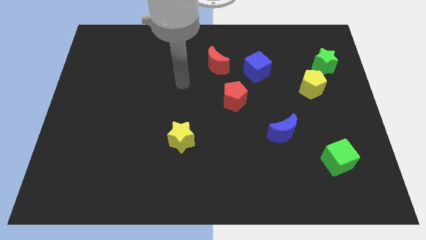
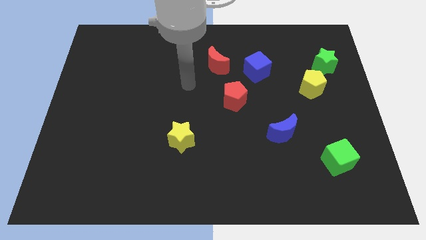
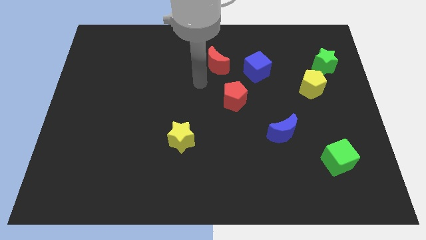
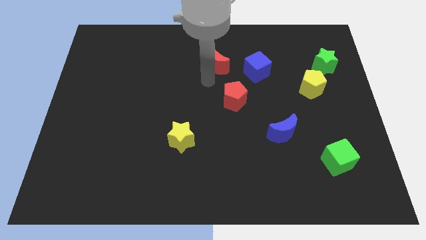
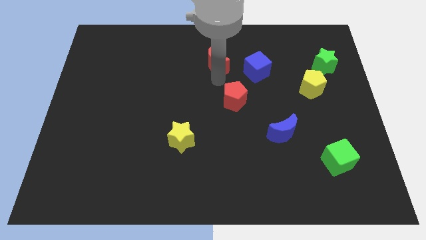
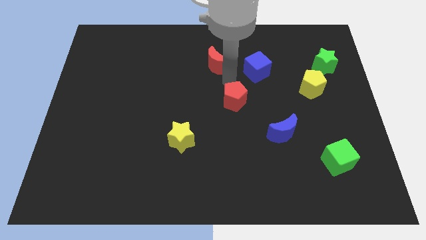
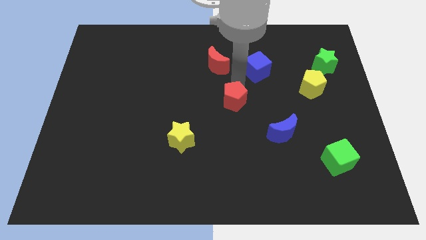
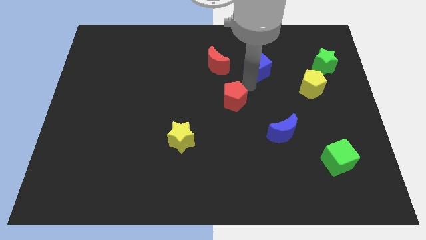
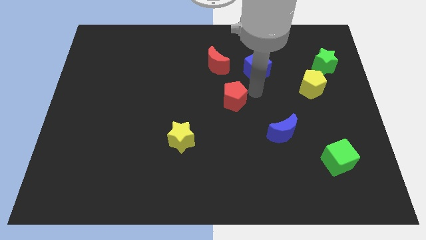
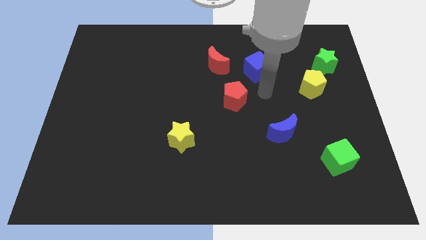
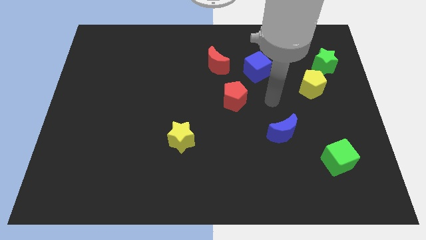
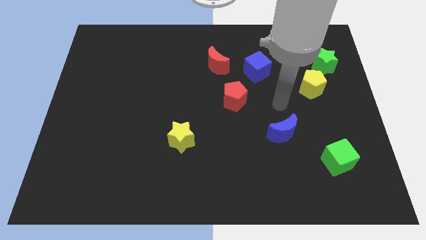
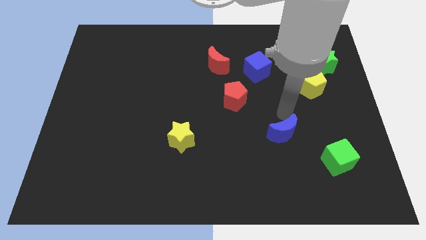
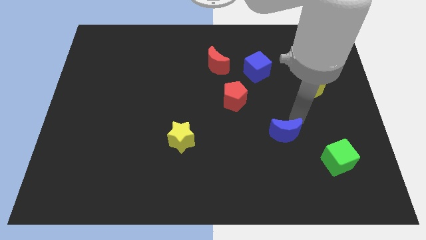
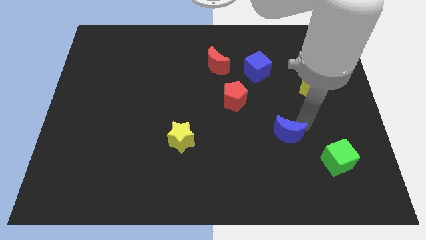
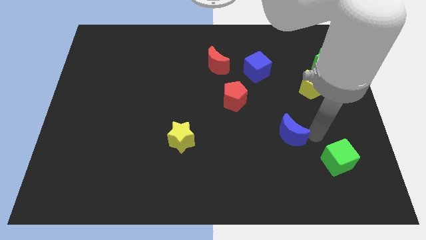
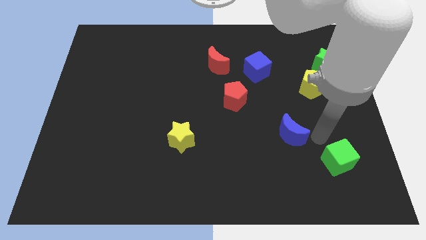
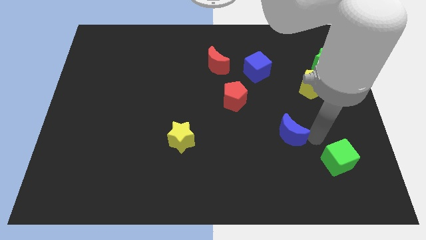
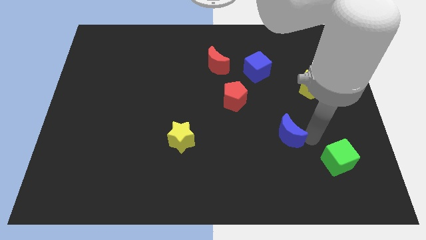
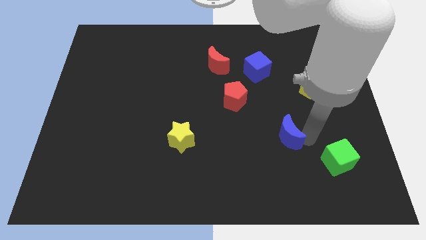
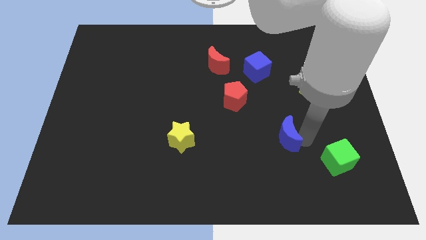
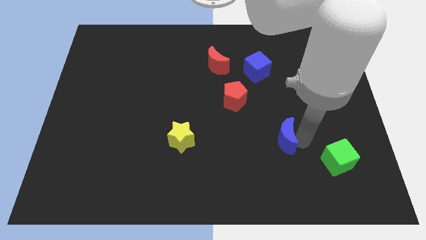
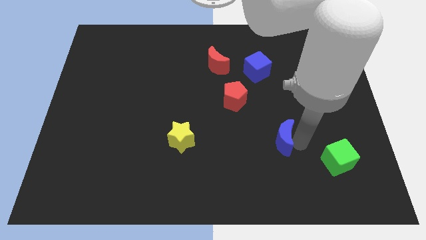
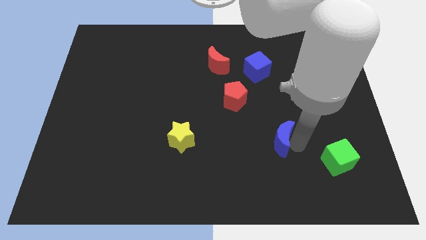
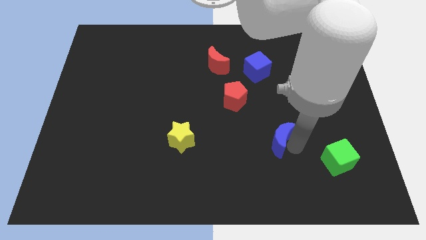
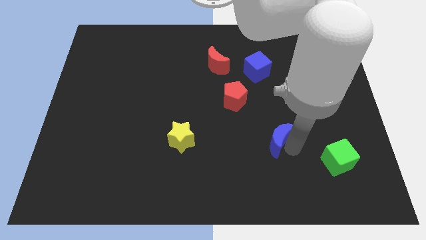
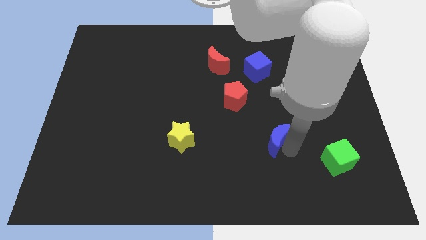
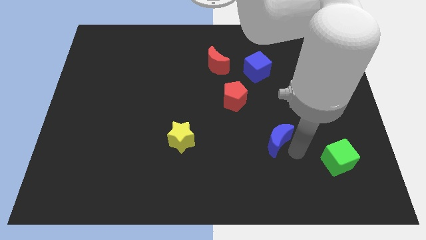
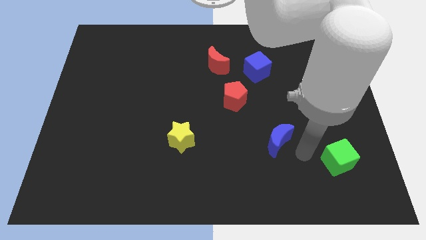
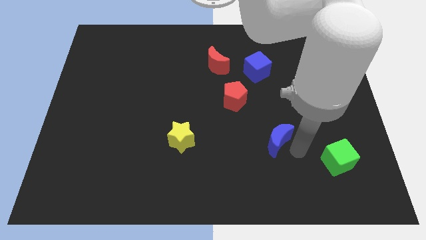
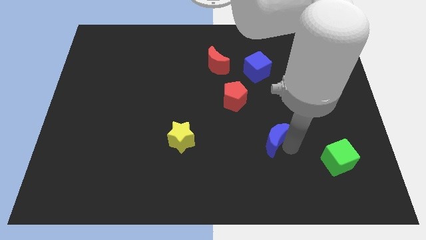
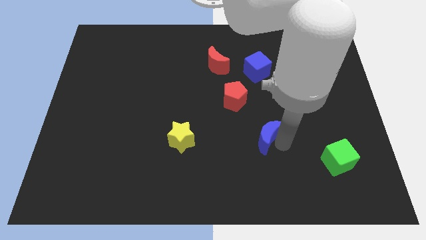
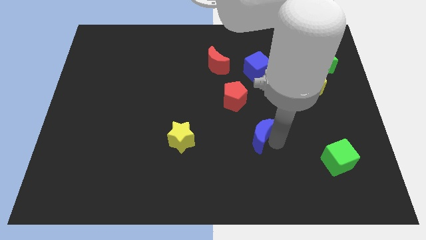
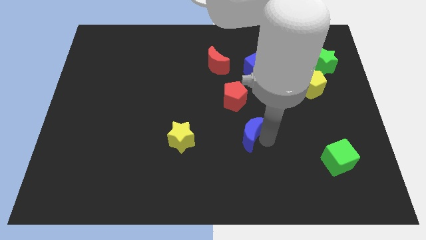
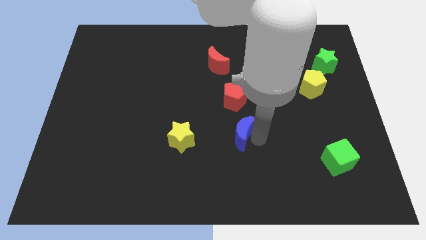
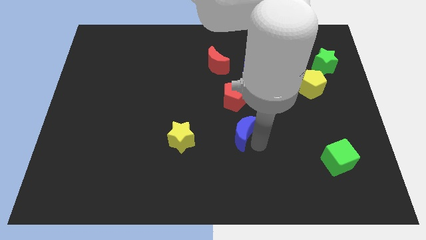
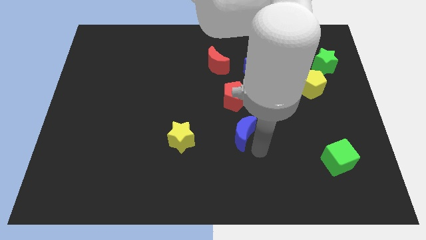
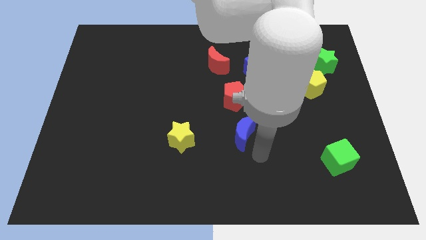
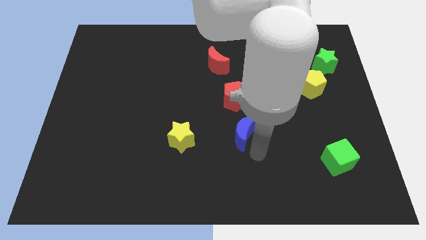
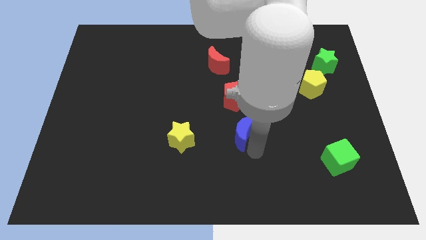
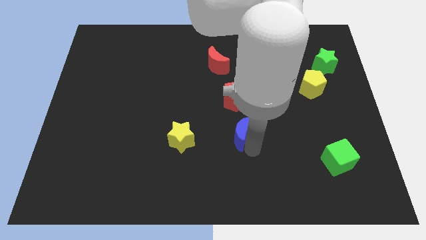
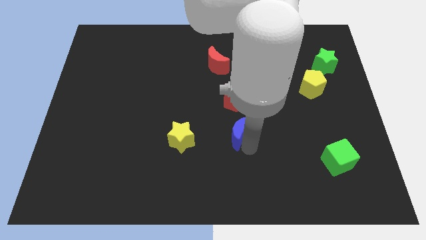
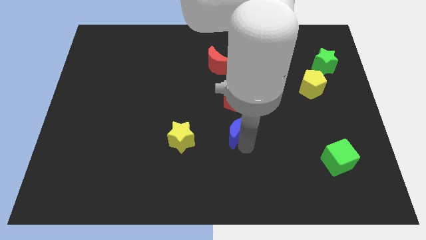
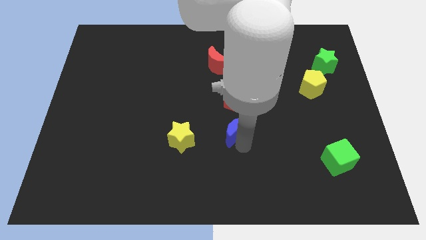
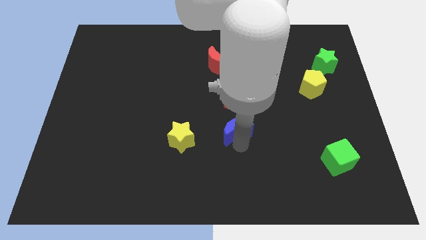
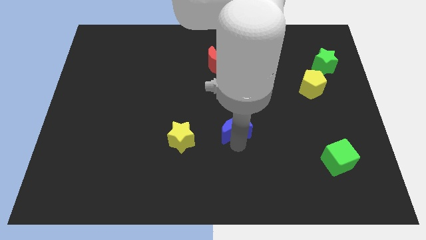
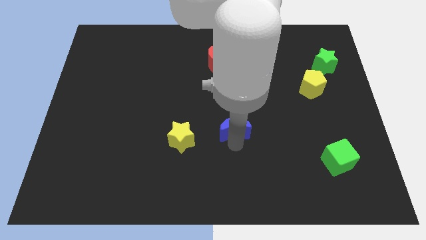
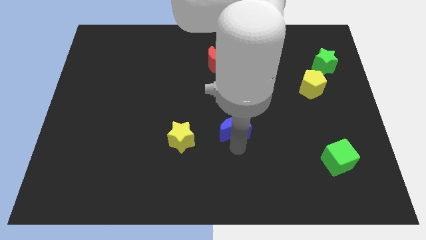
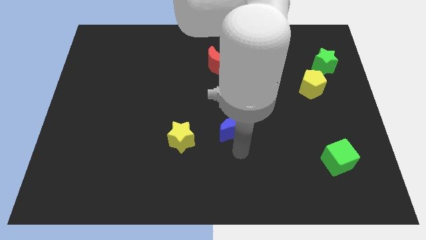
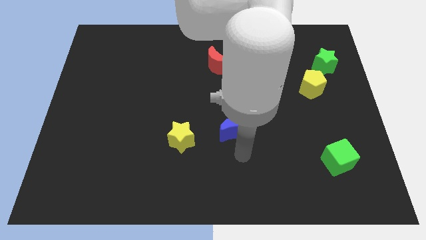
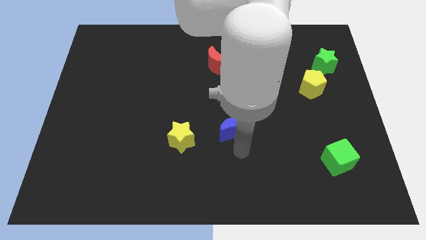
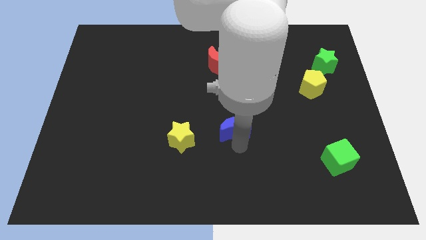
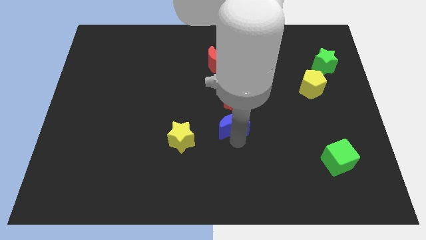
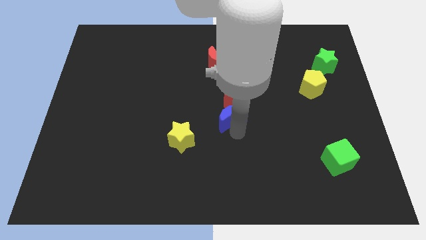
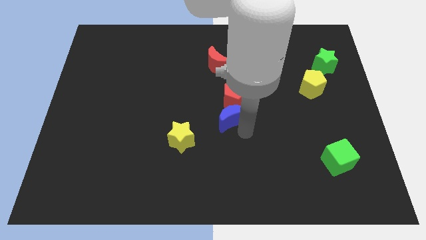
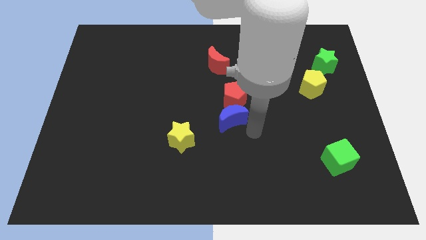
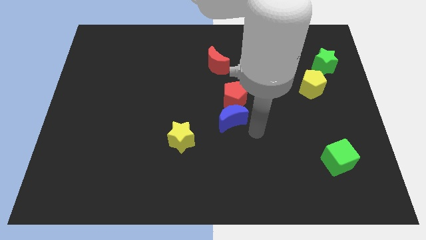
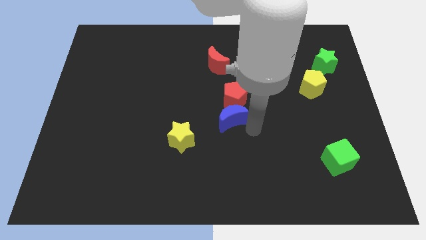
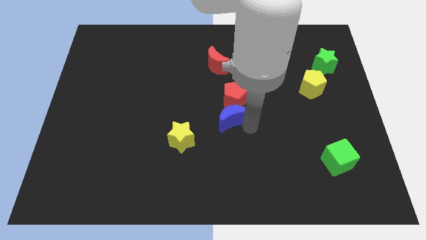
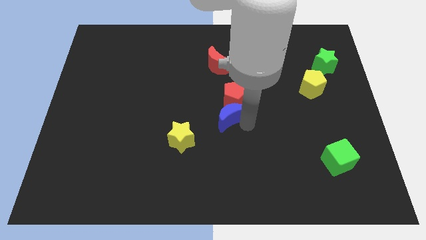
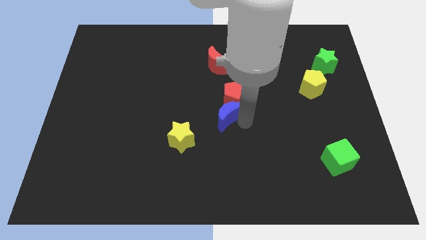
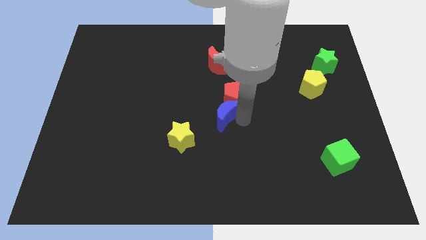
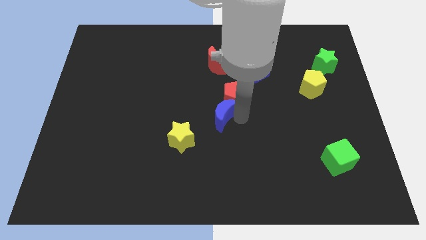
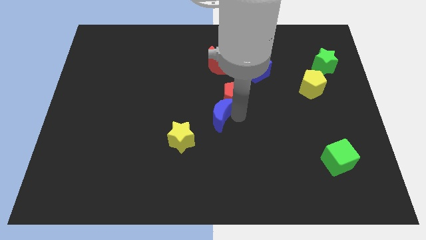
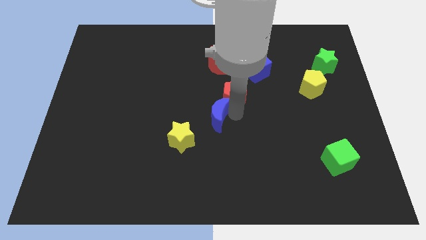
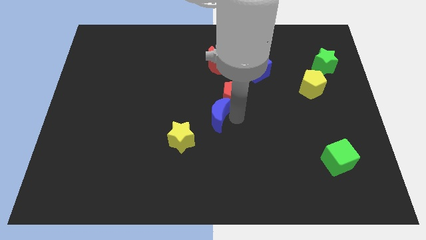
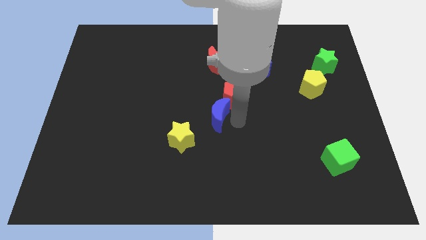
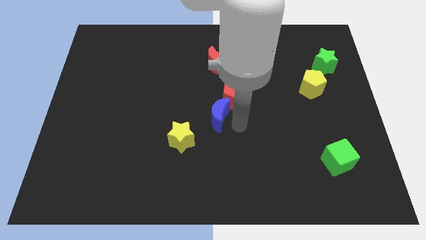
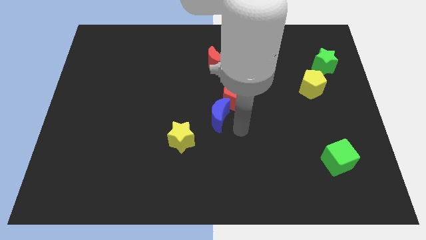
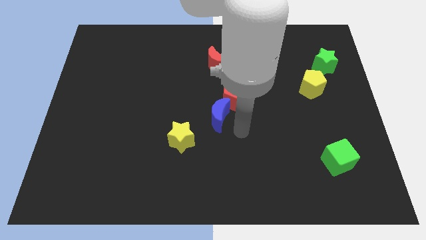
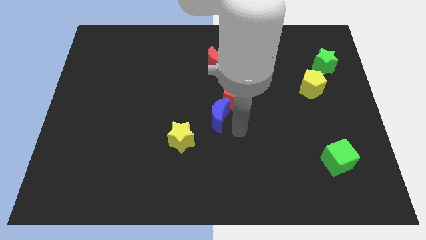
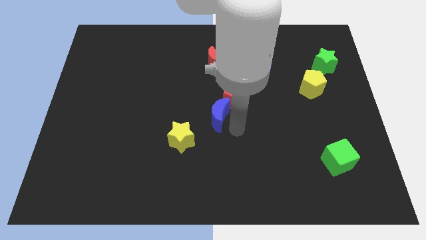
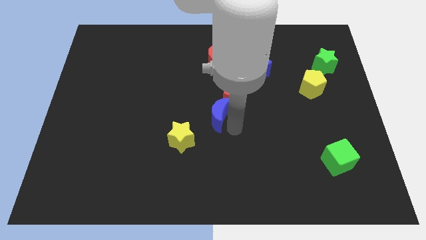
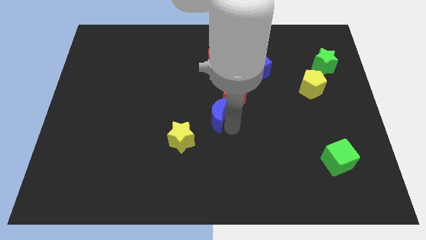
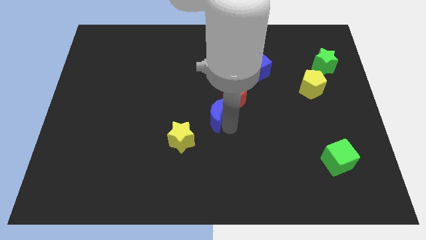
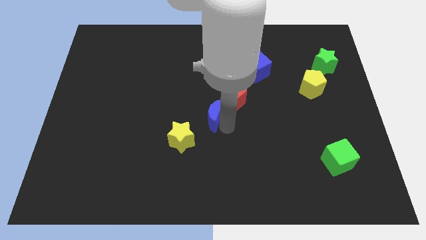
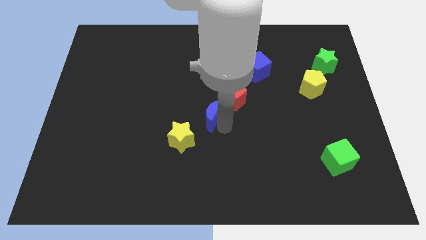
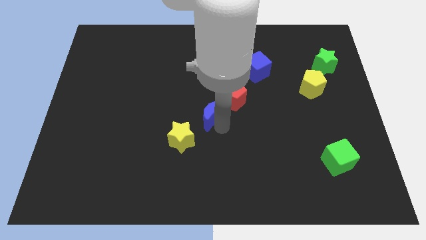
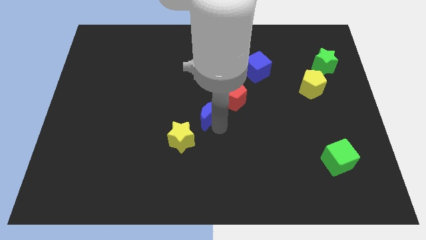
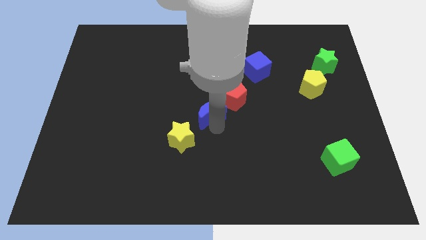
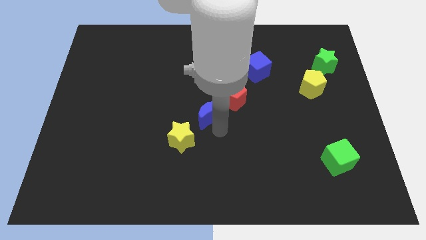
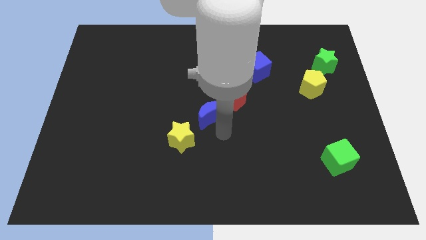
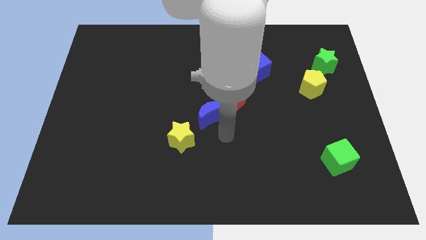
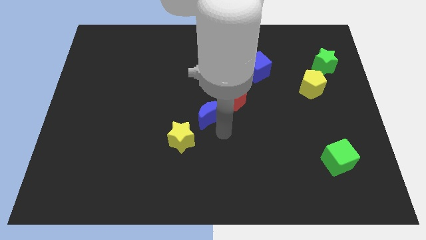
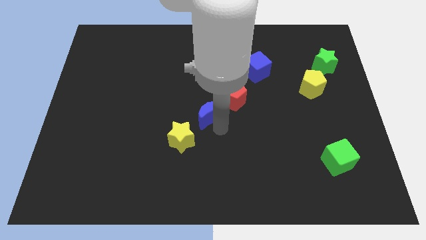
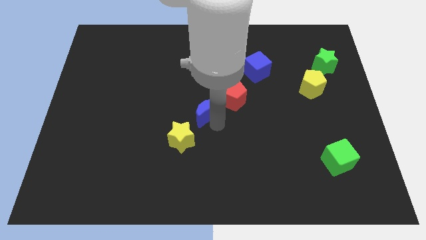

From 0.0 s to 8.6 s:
slide the blue moon just left of the red pentagon
